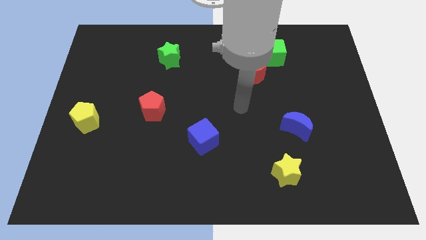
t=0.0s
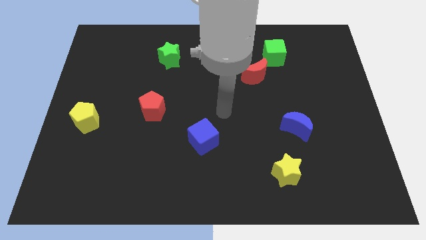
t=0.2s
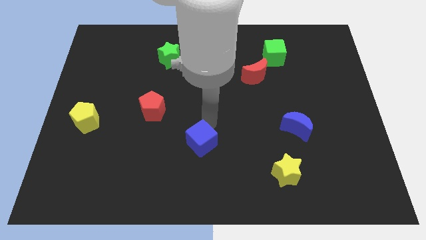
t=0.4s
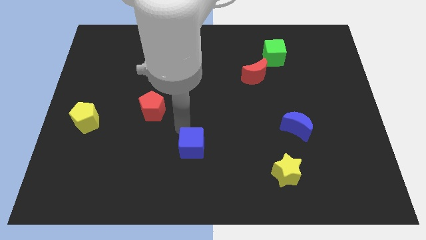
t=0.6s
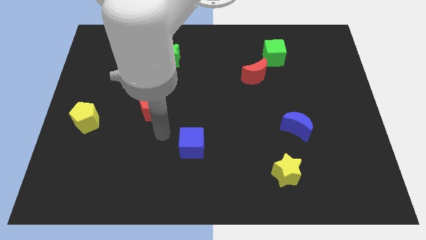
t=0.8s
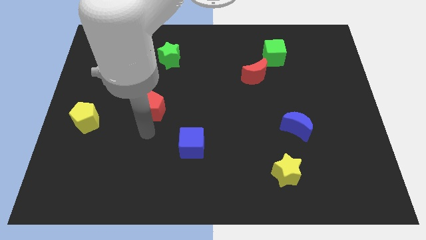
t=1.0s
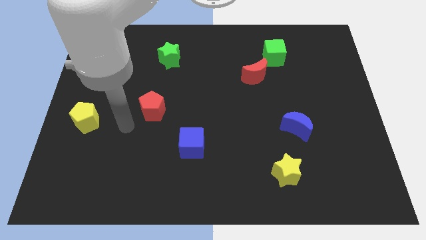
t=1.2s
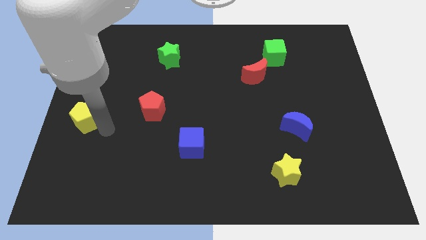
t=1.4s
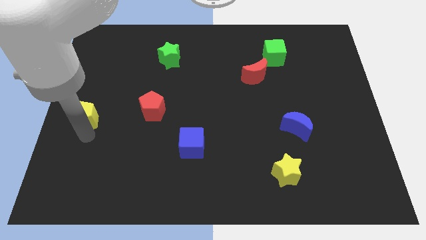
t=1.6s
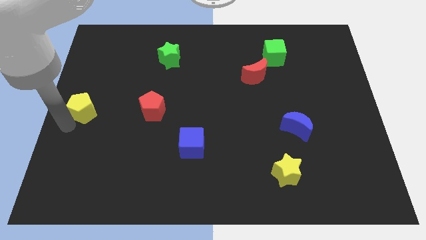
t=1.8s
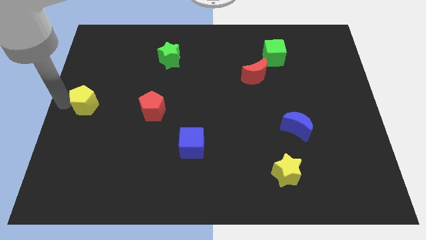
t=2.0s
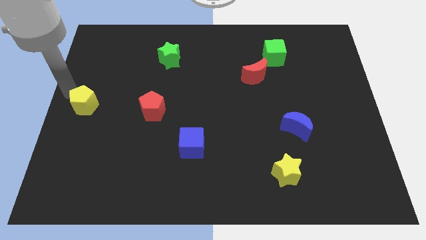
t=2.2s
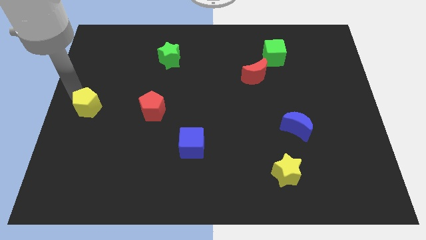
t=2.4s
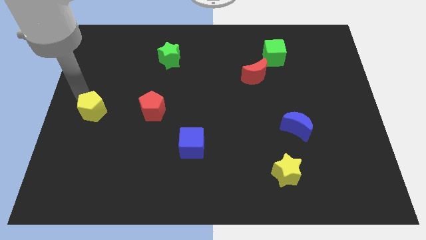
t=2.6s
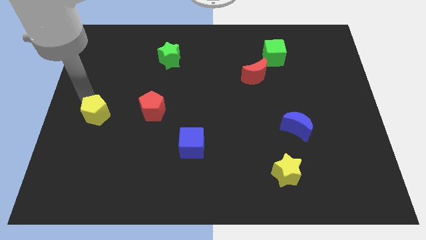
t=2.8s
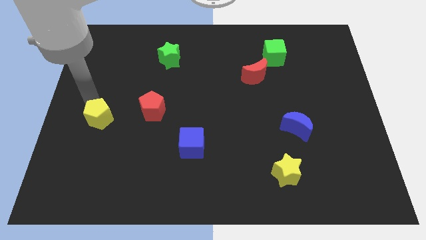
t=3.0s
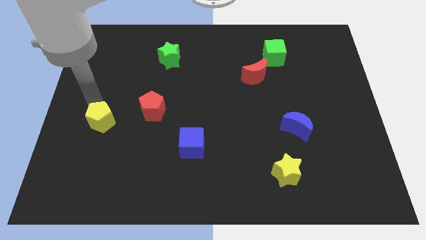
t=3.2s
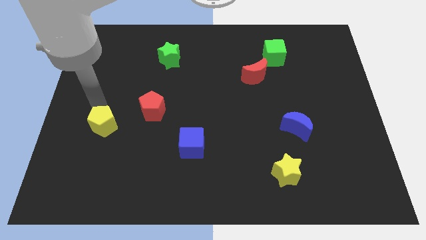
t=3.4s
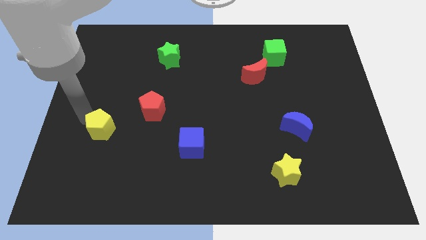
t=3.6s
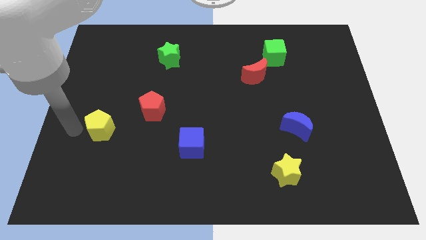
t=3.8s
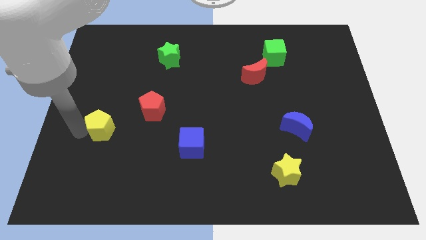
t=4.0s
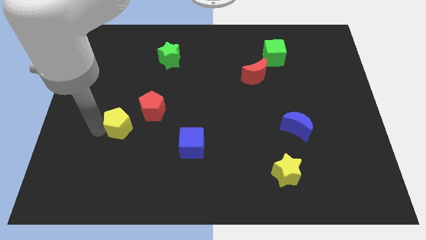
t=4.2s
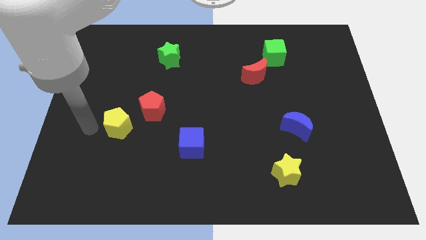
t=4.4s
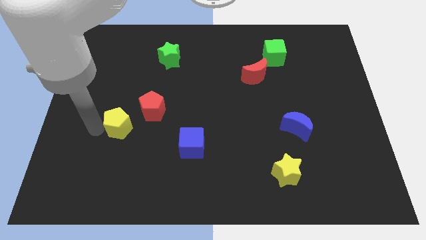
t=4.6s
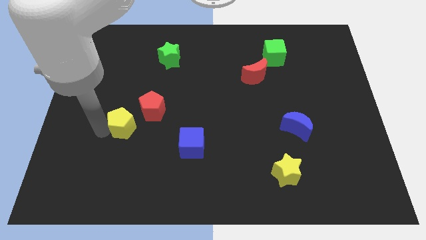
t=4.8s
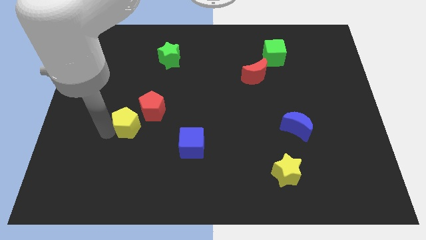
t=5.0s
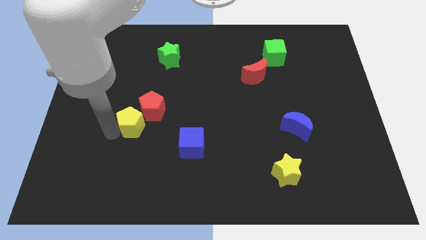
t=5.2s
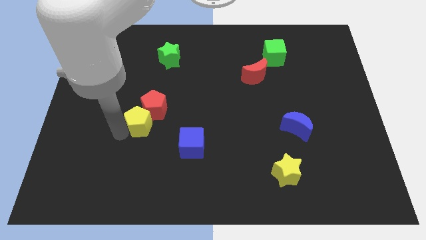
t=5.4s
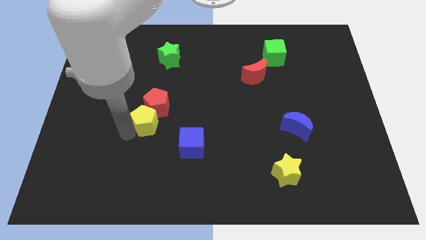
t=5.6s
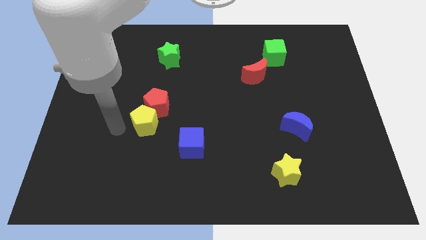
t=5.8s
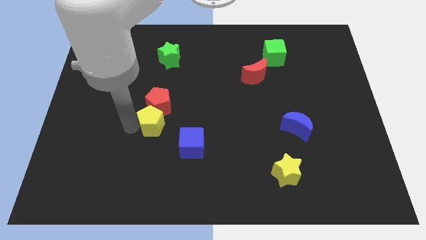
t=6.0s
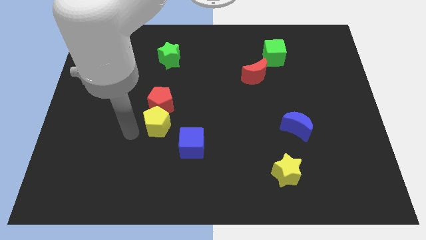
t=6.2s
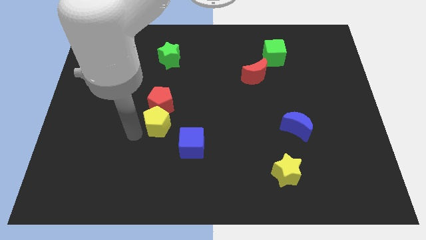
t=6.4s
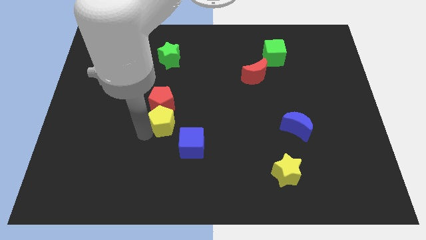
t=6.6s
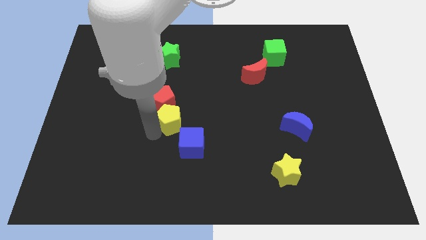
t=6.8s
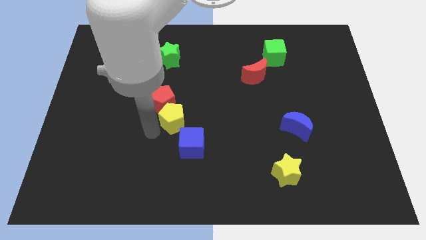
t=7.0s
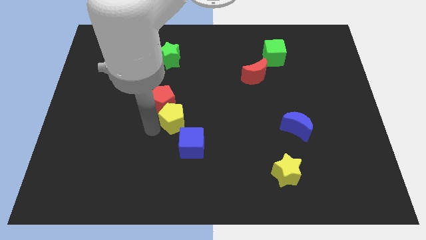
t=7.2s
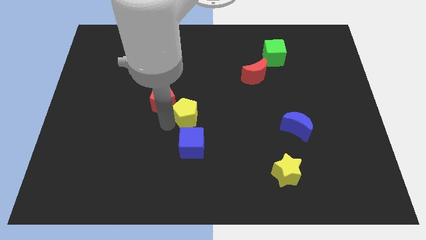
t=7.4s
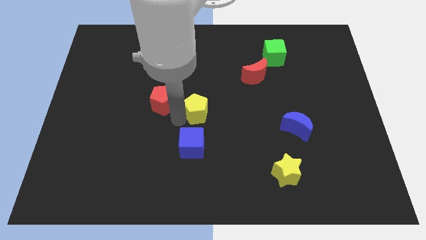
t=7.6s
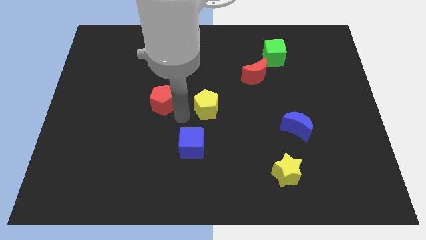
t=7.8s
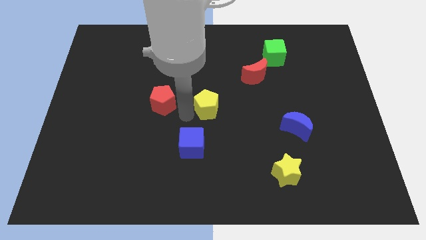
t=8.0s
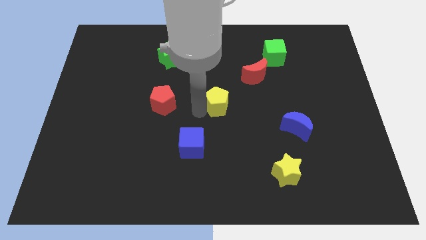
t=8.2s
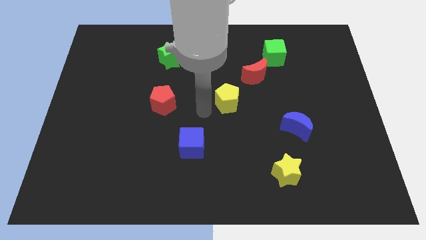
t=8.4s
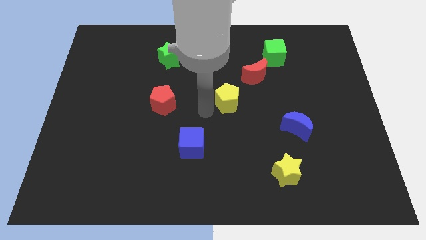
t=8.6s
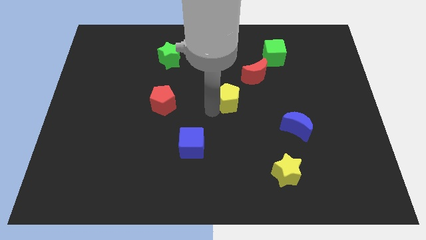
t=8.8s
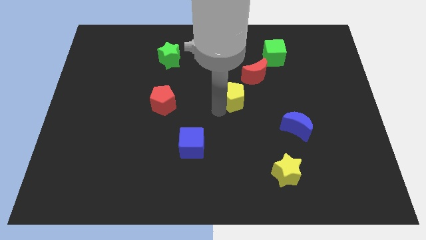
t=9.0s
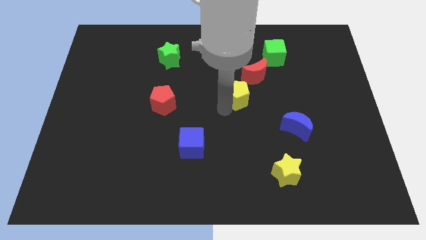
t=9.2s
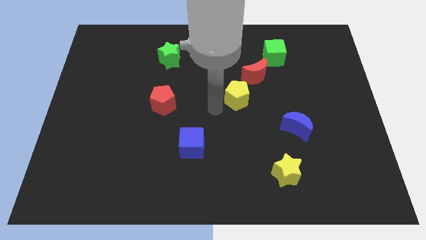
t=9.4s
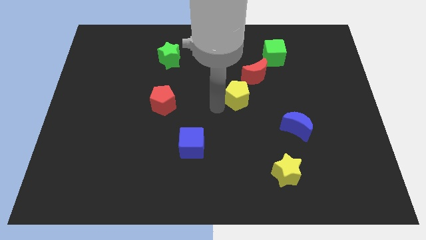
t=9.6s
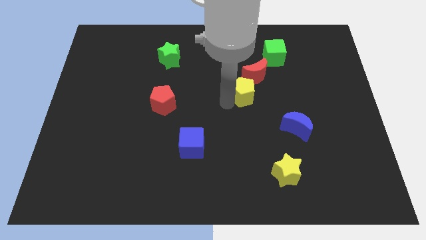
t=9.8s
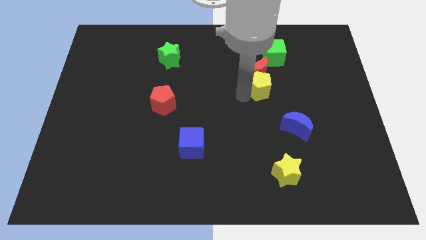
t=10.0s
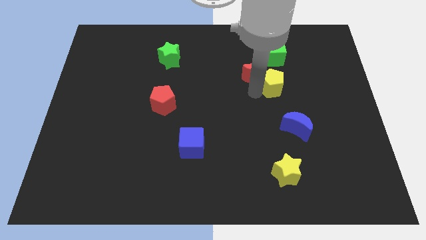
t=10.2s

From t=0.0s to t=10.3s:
push the yellow pentagon to the right side of the red moon

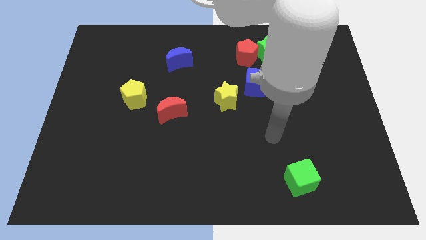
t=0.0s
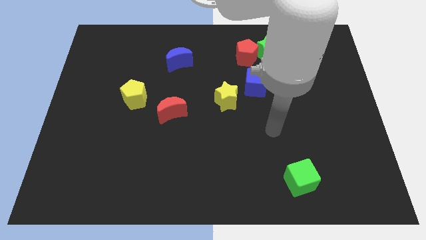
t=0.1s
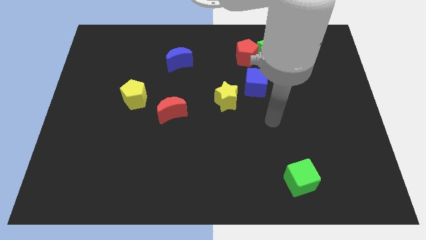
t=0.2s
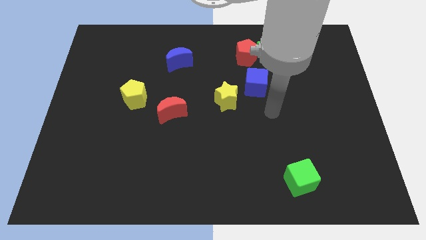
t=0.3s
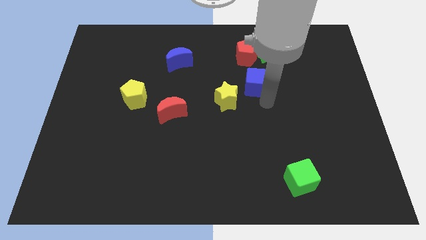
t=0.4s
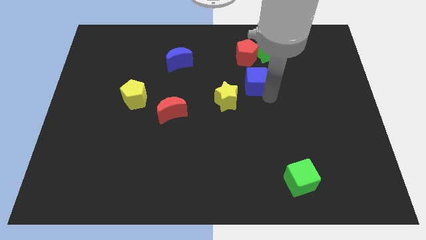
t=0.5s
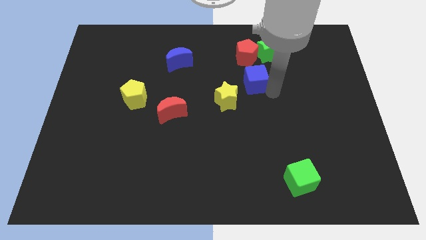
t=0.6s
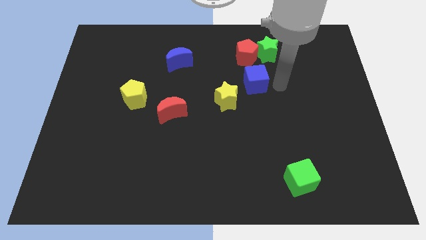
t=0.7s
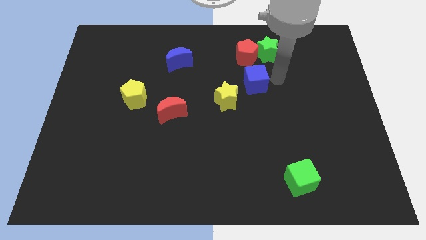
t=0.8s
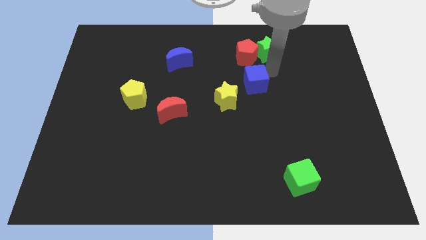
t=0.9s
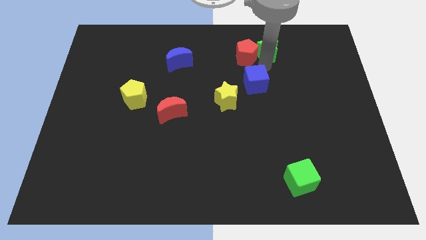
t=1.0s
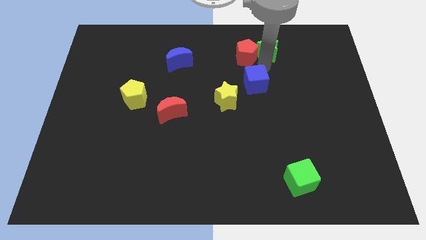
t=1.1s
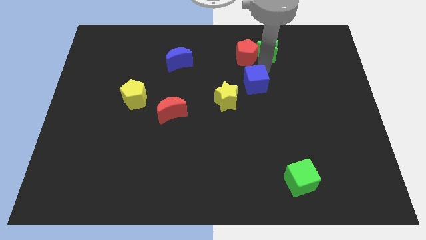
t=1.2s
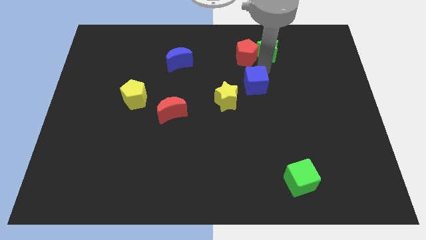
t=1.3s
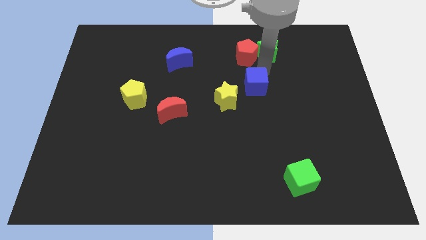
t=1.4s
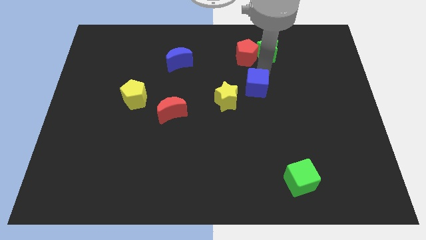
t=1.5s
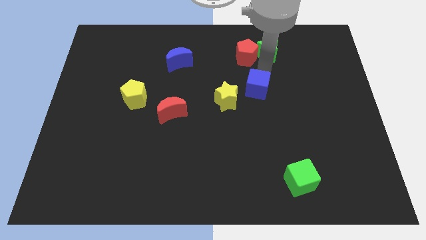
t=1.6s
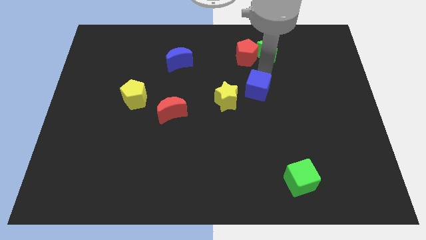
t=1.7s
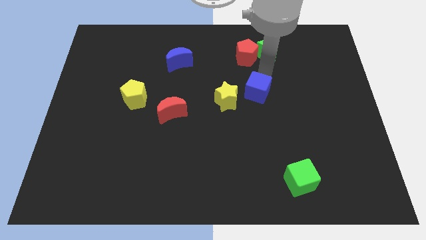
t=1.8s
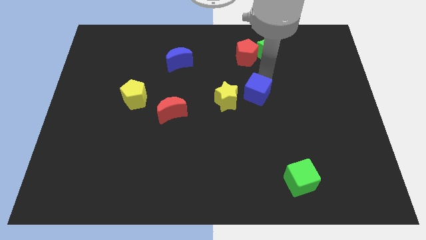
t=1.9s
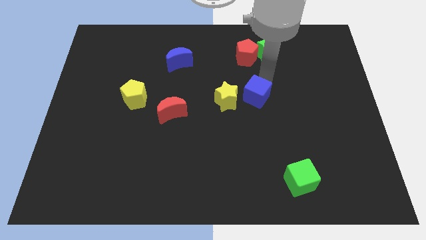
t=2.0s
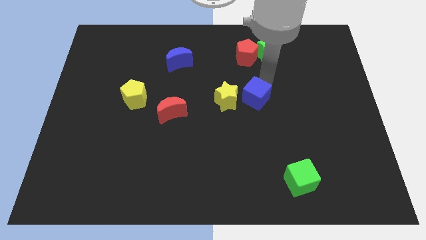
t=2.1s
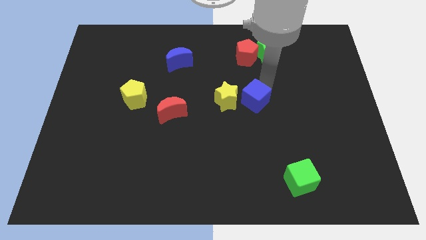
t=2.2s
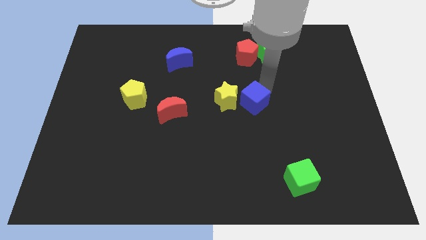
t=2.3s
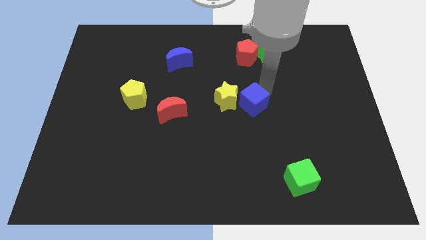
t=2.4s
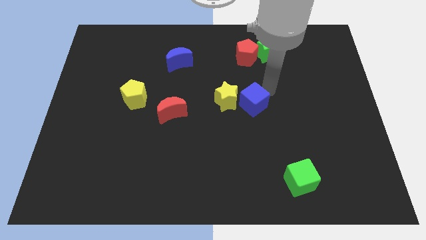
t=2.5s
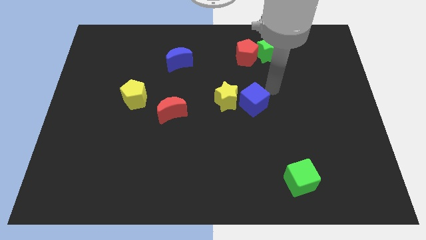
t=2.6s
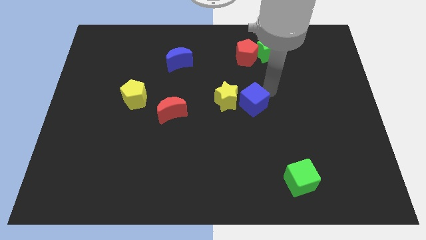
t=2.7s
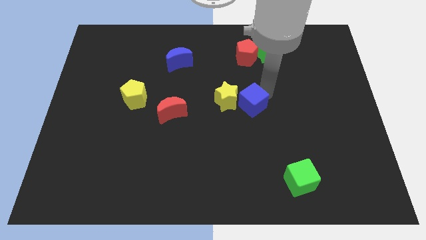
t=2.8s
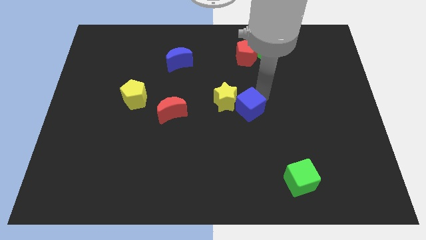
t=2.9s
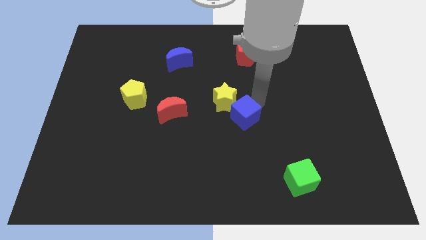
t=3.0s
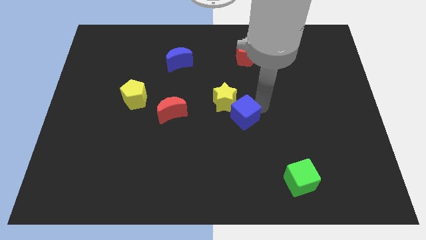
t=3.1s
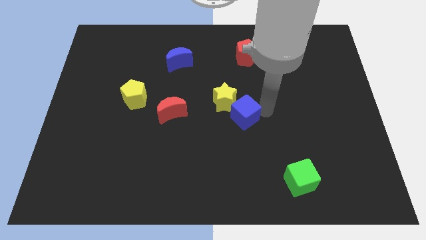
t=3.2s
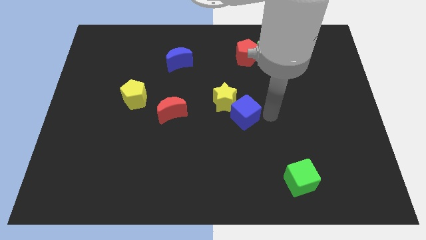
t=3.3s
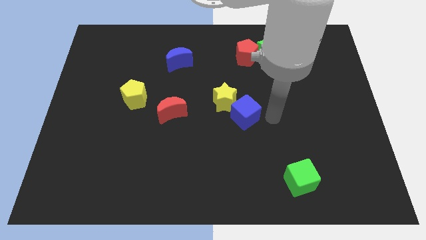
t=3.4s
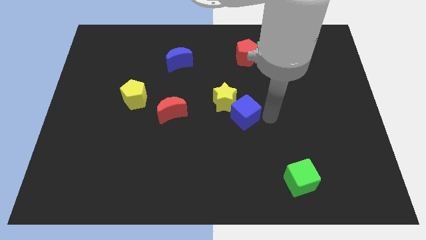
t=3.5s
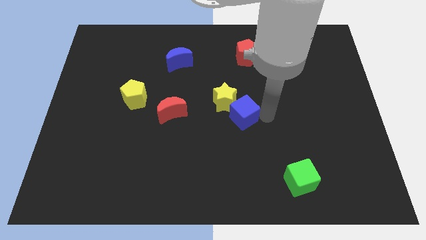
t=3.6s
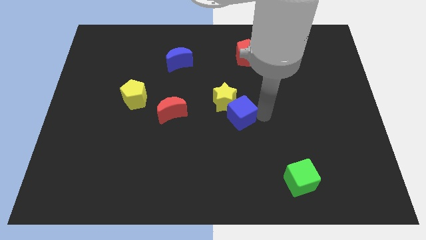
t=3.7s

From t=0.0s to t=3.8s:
push the blue cube to the right of the red moon
